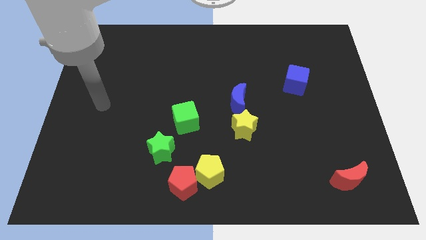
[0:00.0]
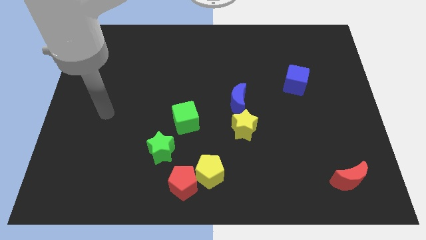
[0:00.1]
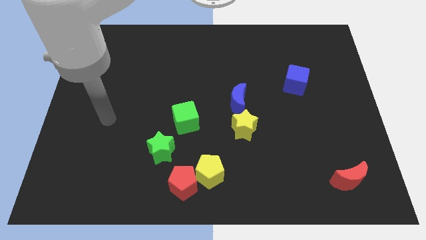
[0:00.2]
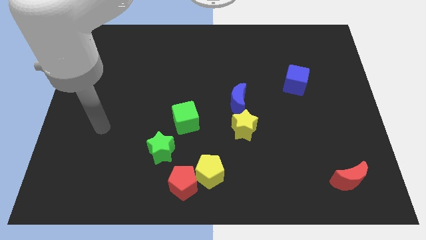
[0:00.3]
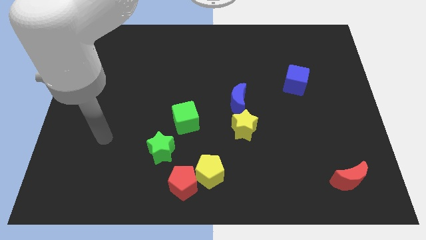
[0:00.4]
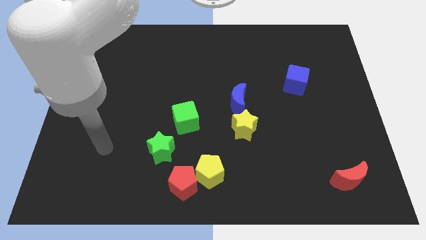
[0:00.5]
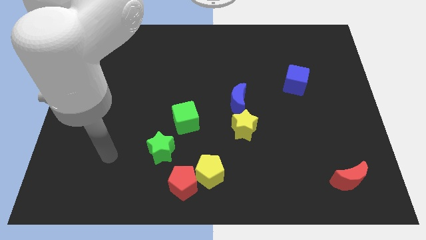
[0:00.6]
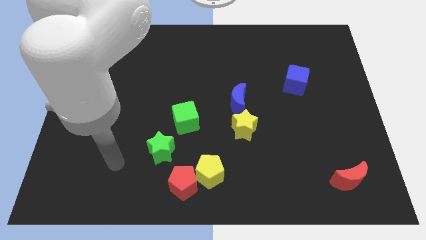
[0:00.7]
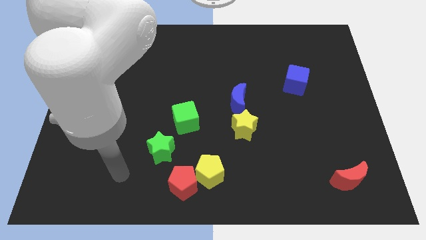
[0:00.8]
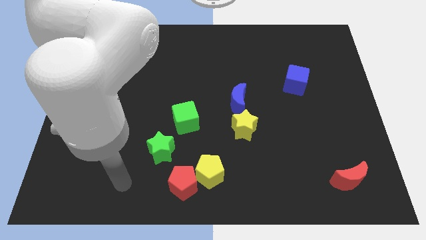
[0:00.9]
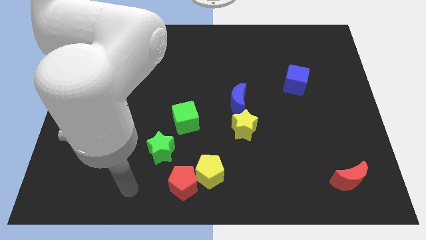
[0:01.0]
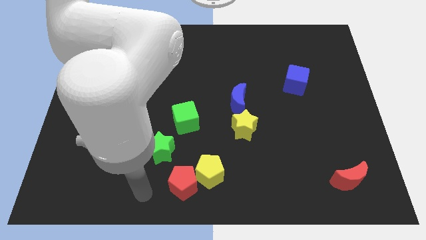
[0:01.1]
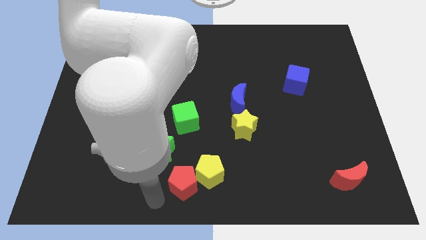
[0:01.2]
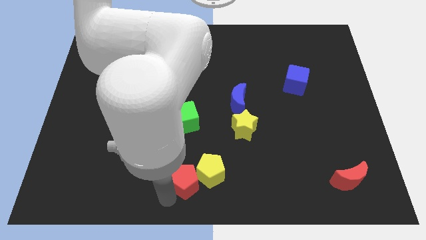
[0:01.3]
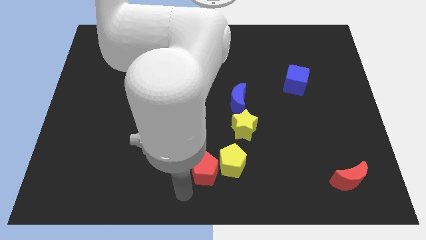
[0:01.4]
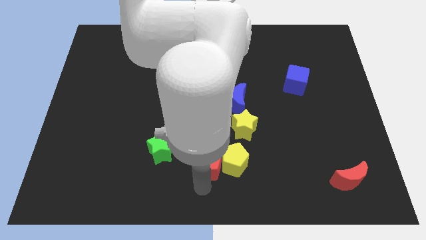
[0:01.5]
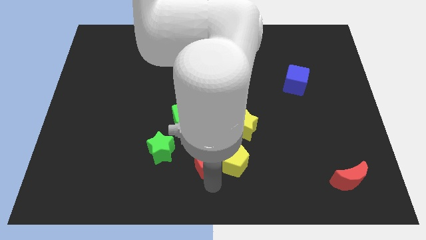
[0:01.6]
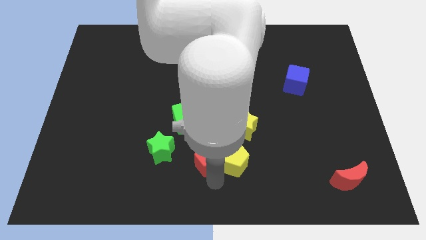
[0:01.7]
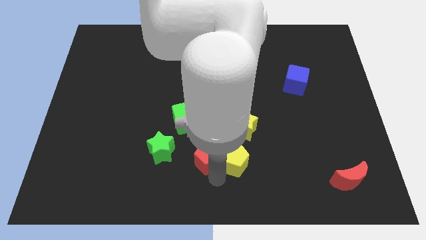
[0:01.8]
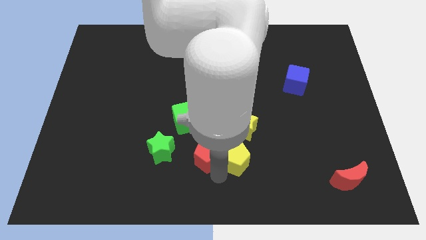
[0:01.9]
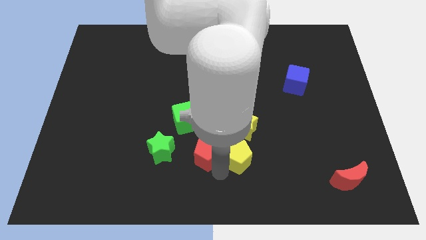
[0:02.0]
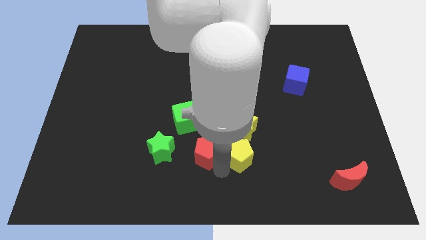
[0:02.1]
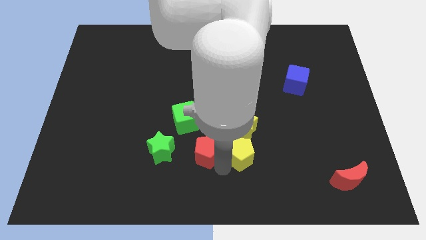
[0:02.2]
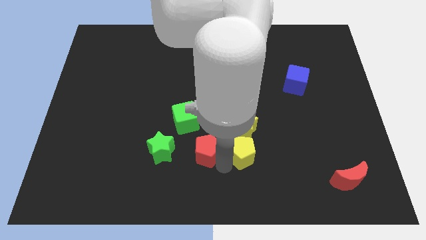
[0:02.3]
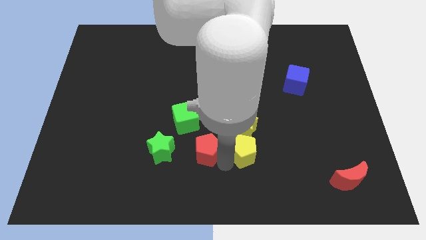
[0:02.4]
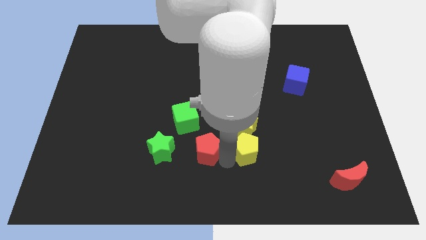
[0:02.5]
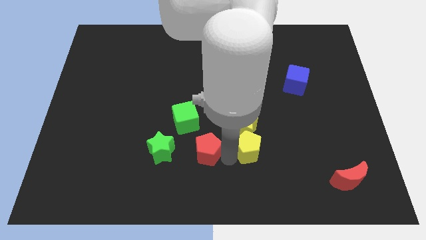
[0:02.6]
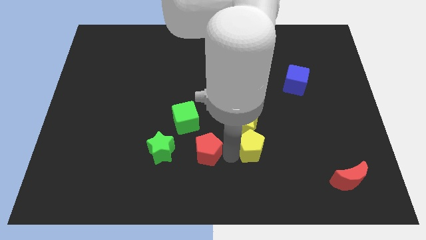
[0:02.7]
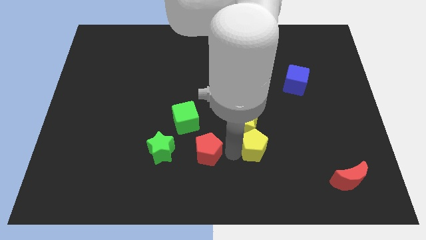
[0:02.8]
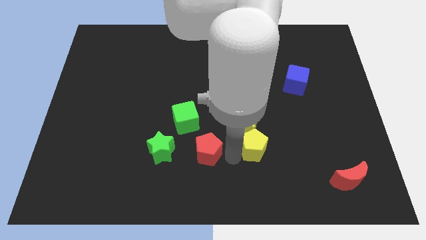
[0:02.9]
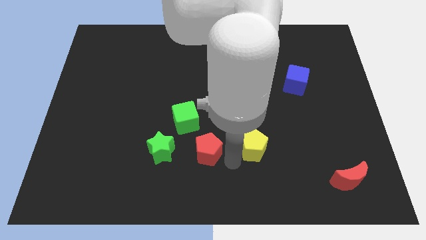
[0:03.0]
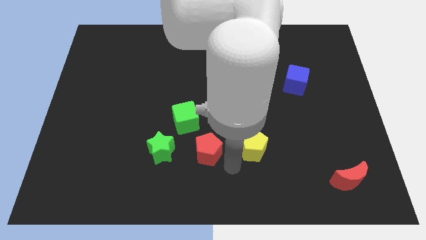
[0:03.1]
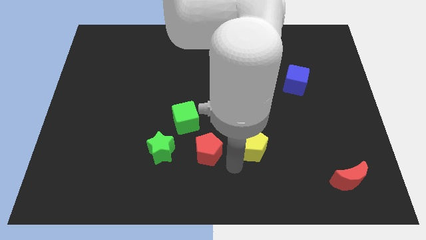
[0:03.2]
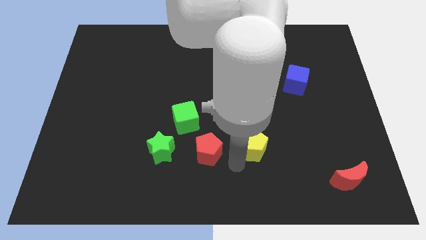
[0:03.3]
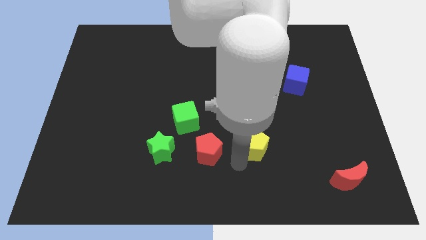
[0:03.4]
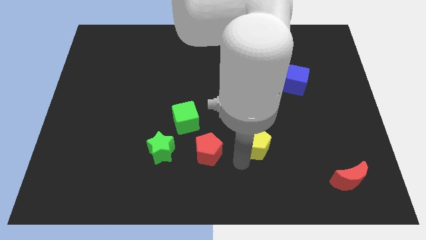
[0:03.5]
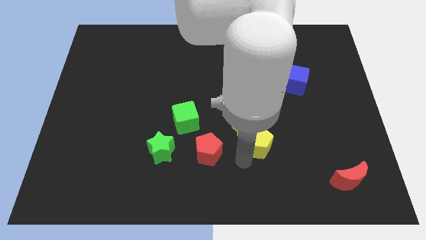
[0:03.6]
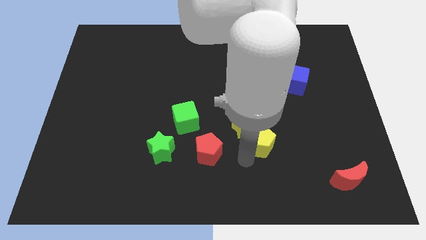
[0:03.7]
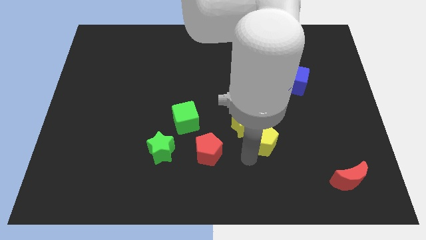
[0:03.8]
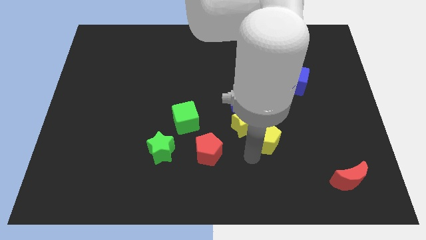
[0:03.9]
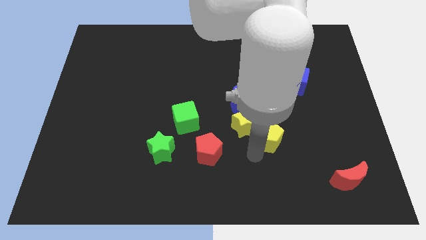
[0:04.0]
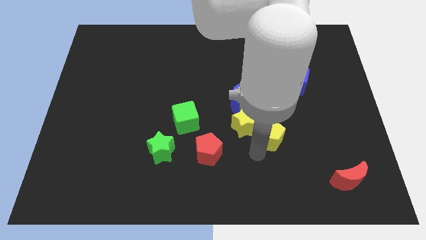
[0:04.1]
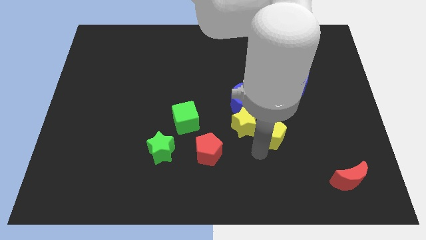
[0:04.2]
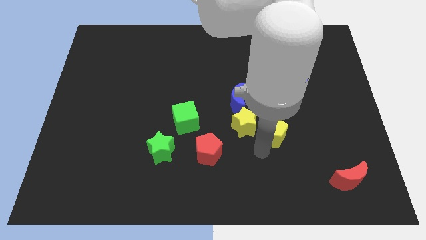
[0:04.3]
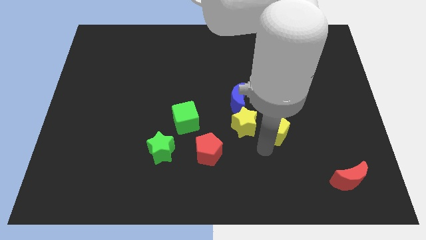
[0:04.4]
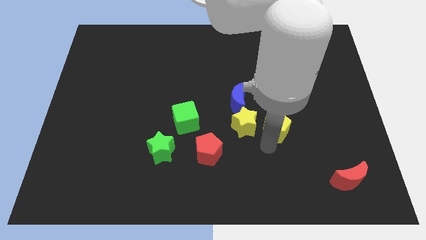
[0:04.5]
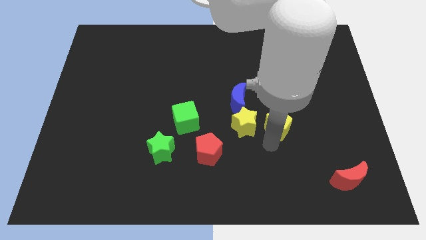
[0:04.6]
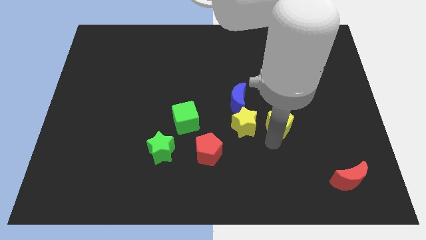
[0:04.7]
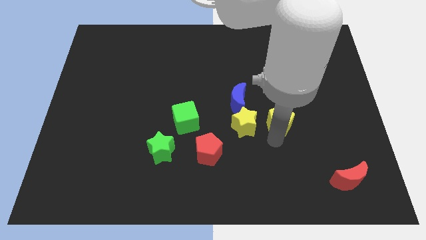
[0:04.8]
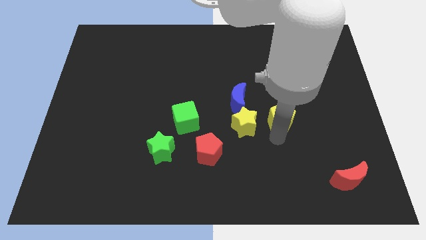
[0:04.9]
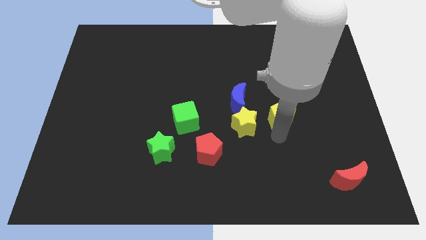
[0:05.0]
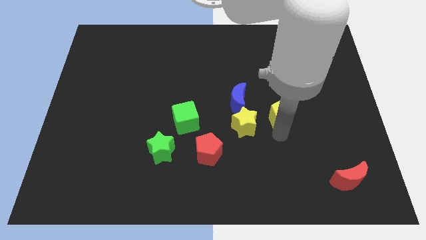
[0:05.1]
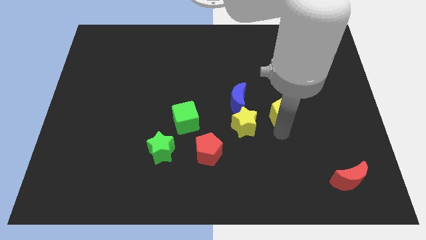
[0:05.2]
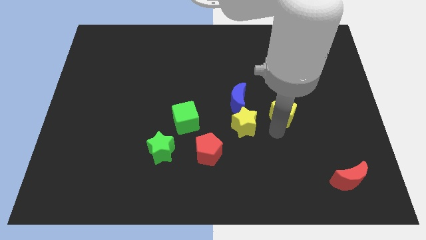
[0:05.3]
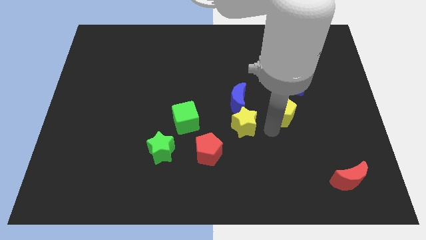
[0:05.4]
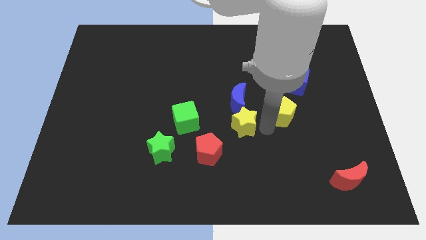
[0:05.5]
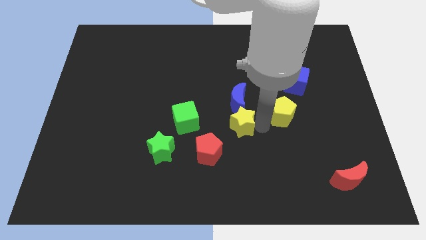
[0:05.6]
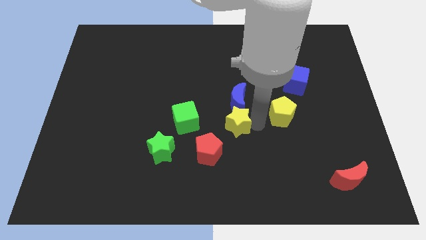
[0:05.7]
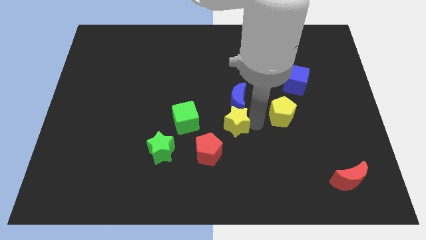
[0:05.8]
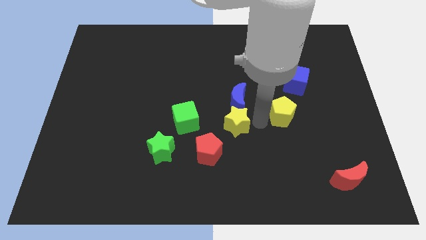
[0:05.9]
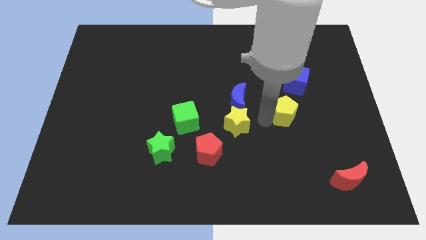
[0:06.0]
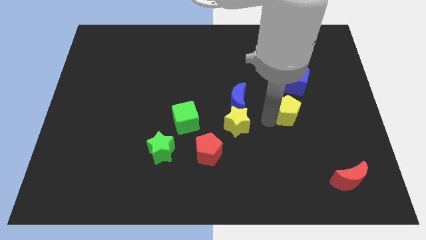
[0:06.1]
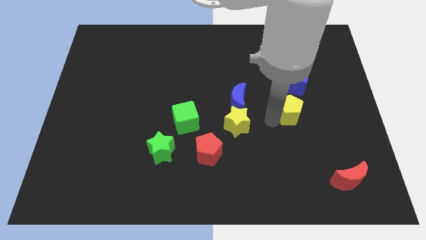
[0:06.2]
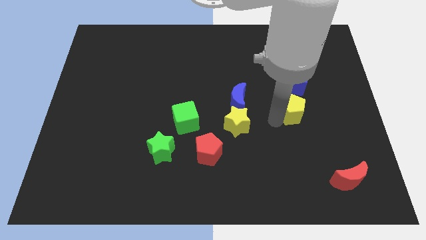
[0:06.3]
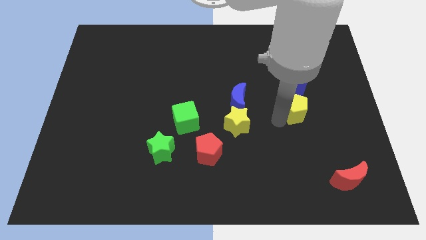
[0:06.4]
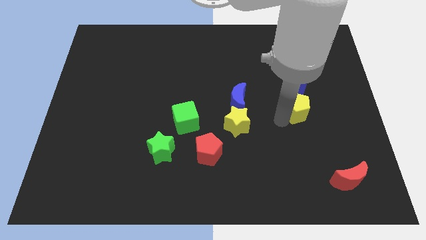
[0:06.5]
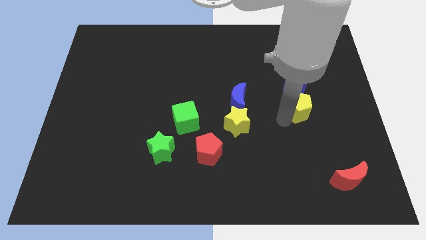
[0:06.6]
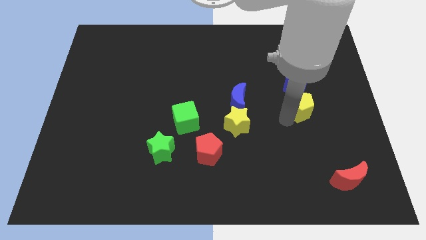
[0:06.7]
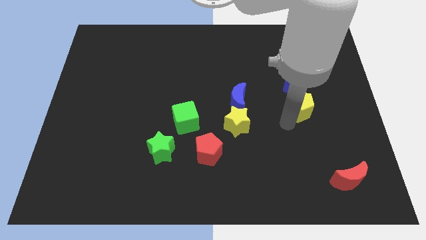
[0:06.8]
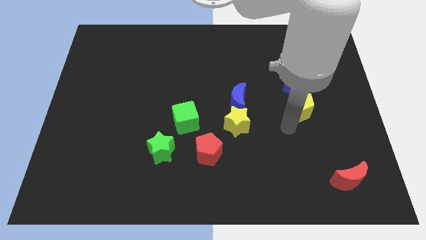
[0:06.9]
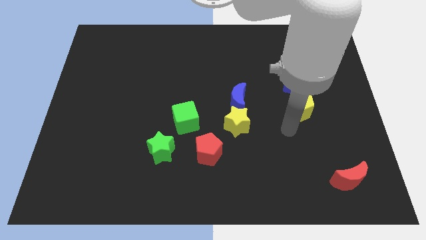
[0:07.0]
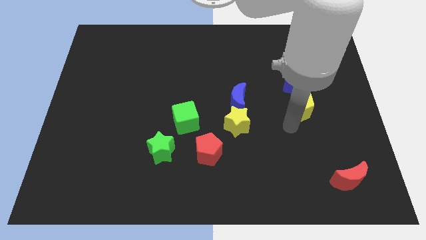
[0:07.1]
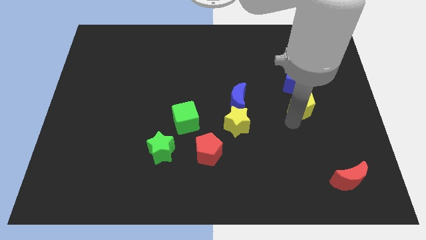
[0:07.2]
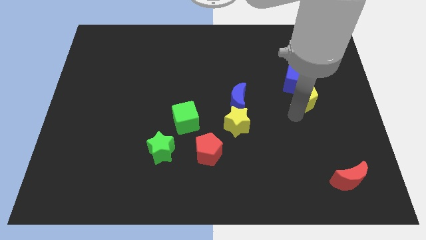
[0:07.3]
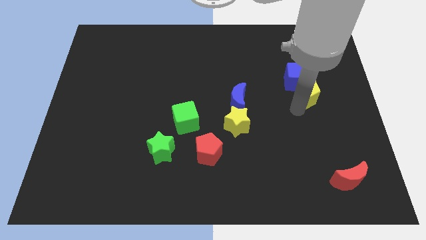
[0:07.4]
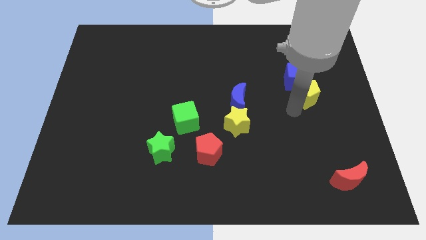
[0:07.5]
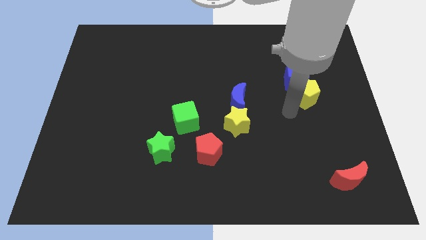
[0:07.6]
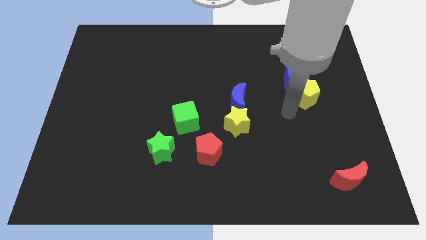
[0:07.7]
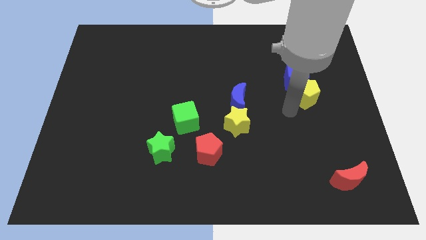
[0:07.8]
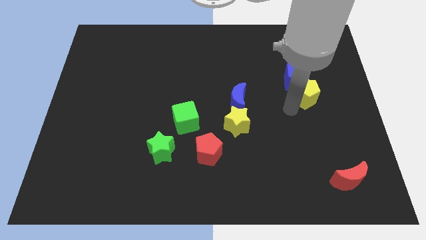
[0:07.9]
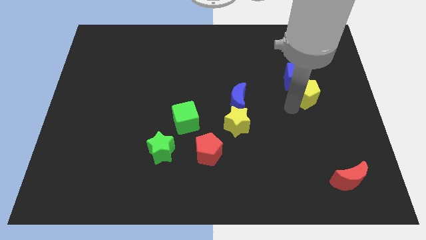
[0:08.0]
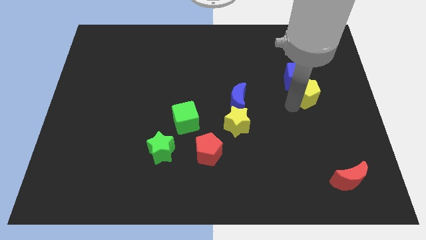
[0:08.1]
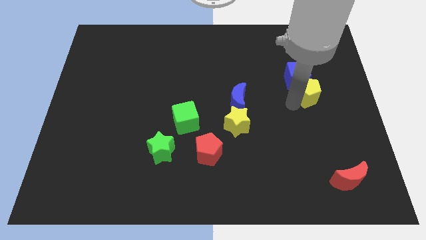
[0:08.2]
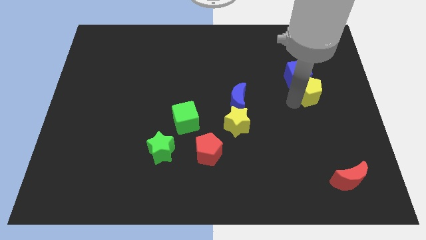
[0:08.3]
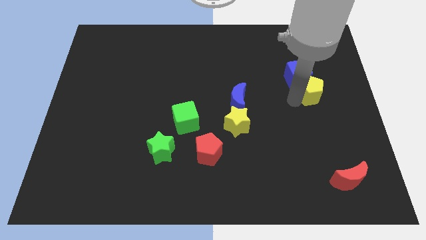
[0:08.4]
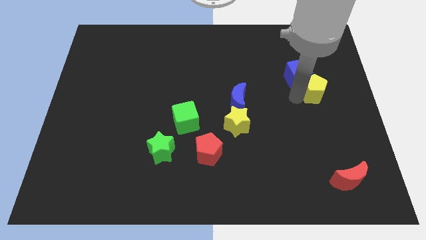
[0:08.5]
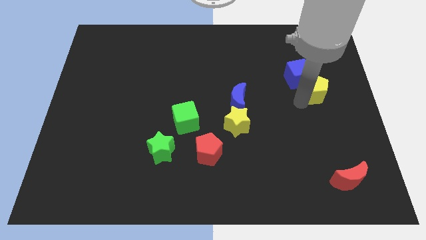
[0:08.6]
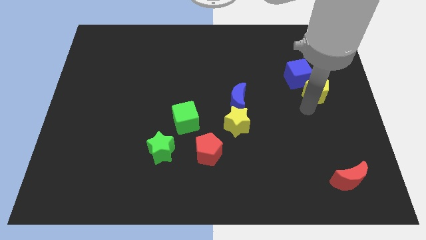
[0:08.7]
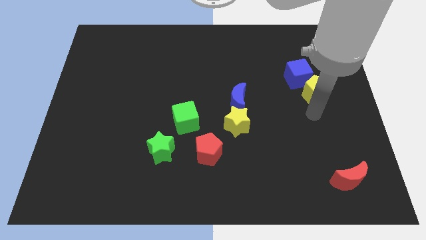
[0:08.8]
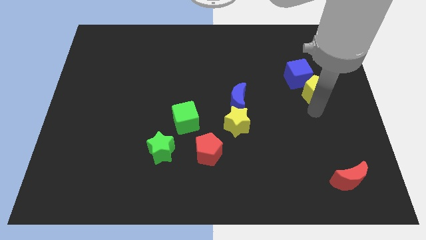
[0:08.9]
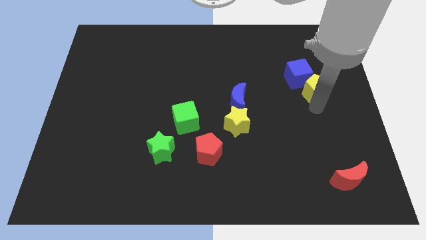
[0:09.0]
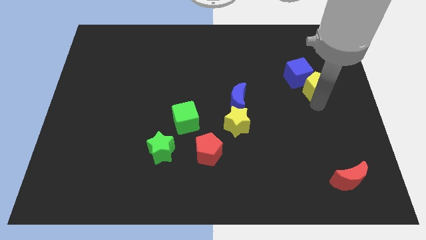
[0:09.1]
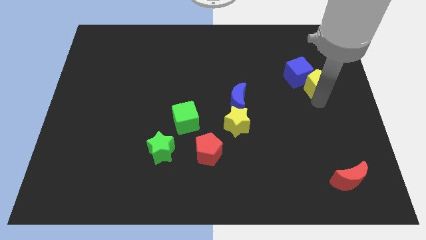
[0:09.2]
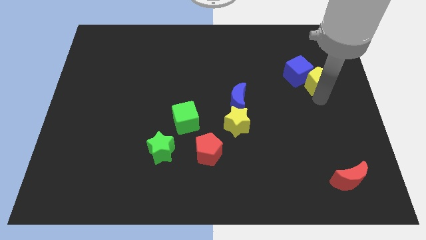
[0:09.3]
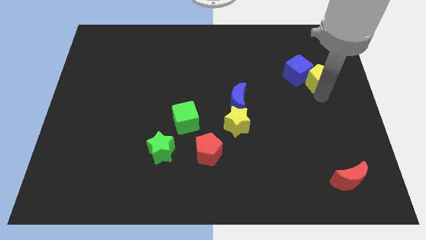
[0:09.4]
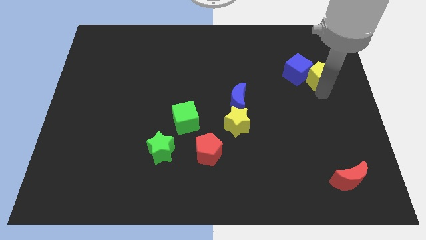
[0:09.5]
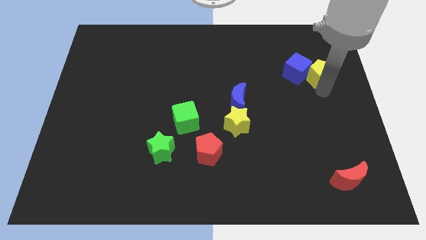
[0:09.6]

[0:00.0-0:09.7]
put the yellow pentagon to the top right of the blue cube
